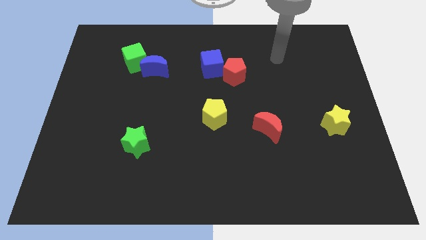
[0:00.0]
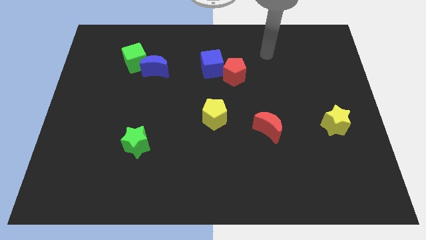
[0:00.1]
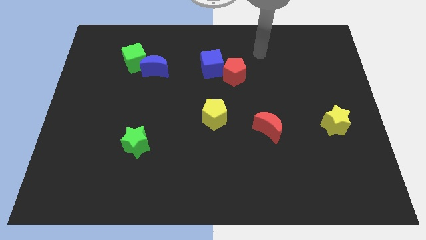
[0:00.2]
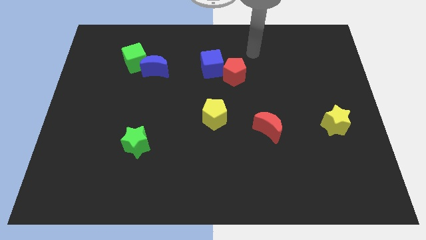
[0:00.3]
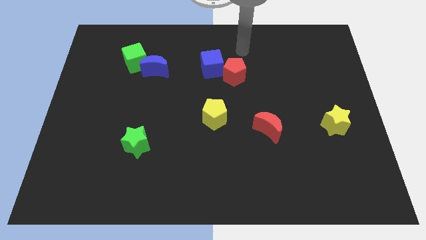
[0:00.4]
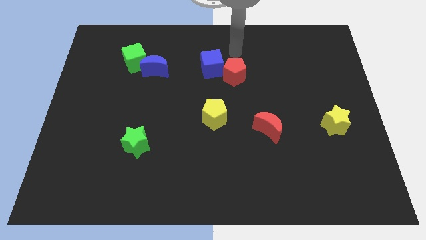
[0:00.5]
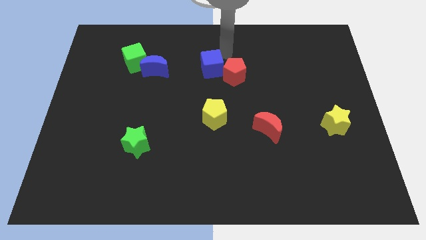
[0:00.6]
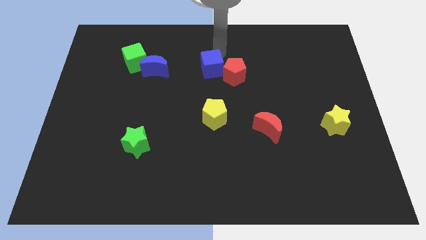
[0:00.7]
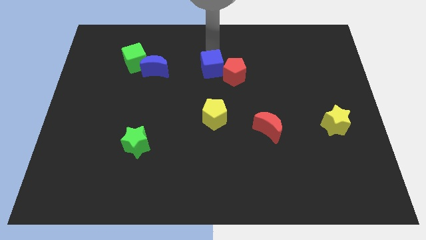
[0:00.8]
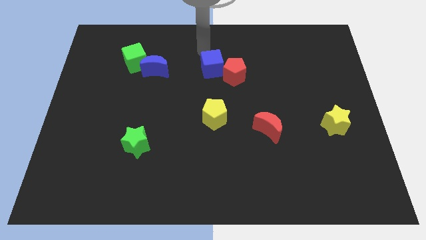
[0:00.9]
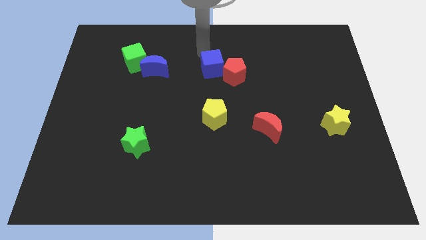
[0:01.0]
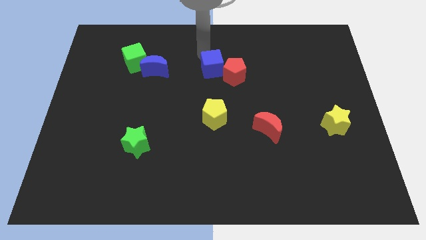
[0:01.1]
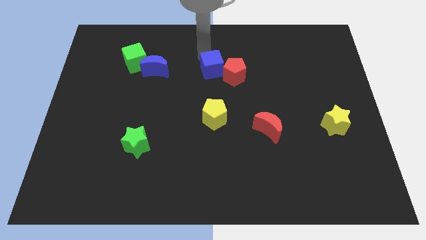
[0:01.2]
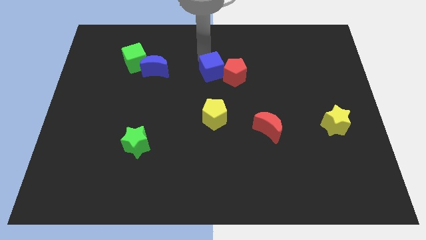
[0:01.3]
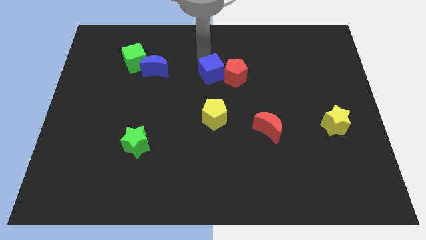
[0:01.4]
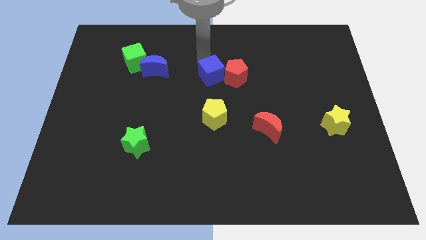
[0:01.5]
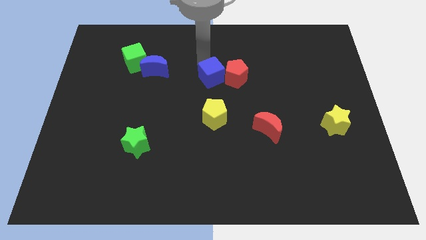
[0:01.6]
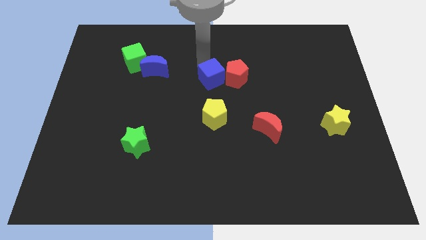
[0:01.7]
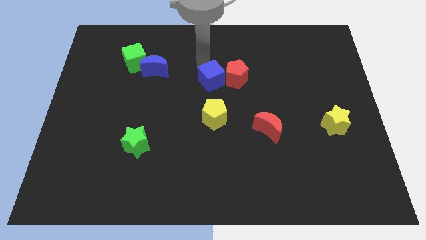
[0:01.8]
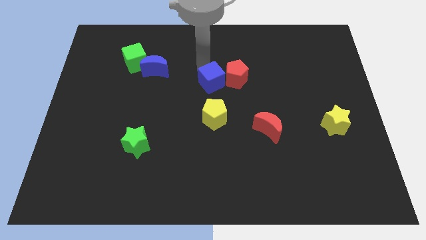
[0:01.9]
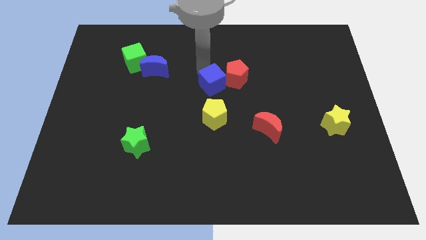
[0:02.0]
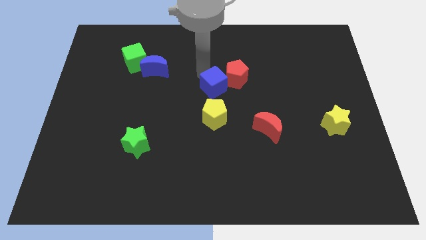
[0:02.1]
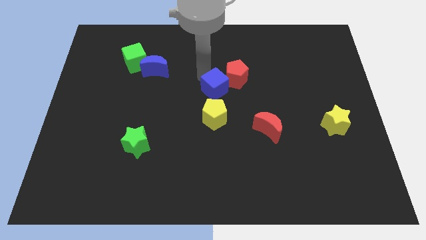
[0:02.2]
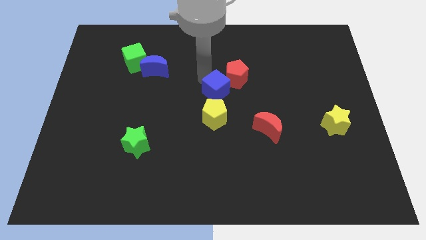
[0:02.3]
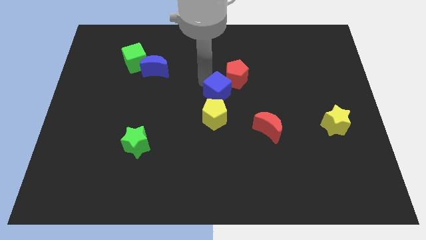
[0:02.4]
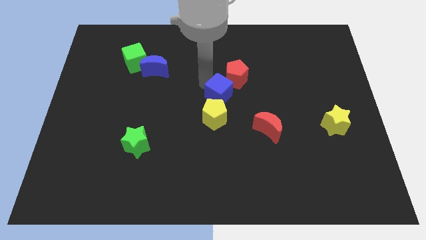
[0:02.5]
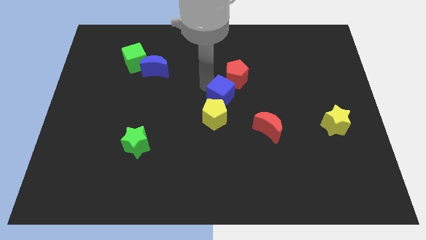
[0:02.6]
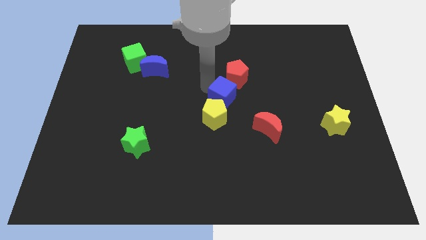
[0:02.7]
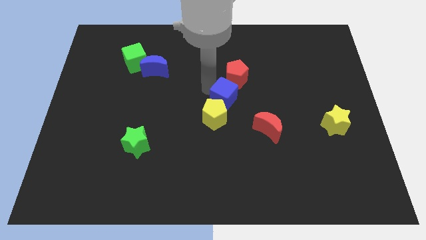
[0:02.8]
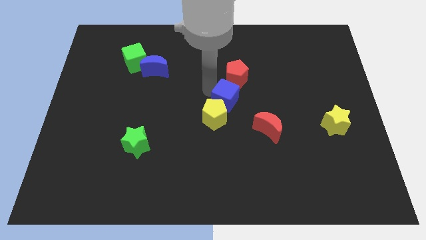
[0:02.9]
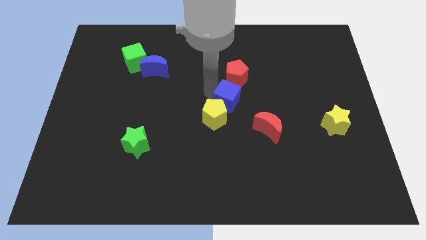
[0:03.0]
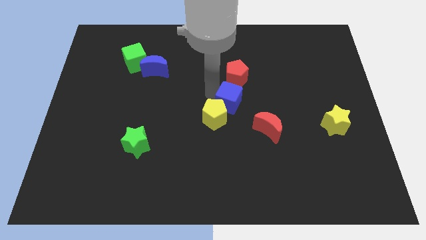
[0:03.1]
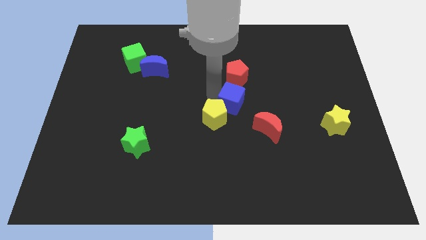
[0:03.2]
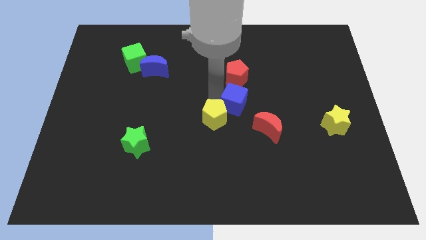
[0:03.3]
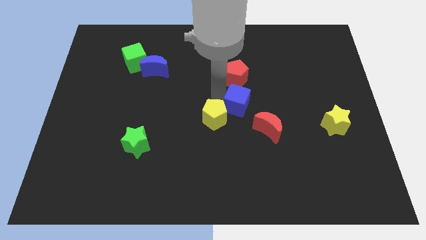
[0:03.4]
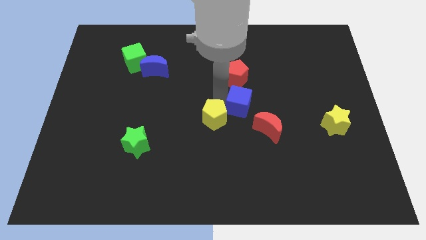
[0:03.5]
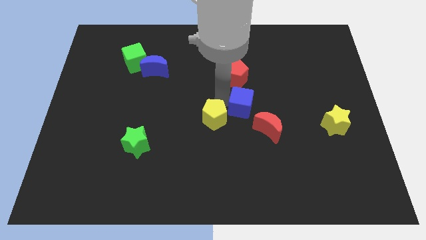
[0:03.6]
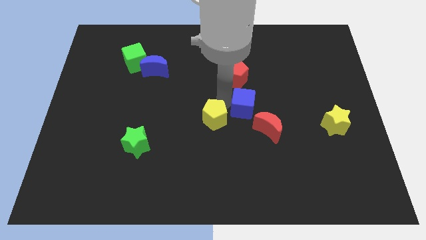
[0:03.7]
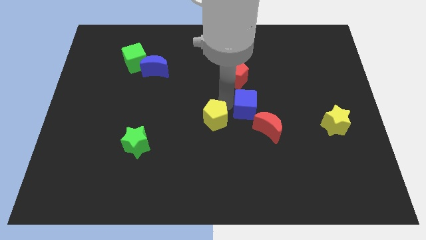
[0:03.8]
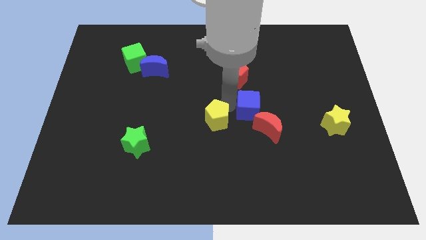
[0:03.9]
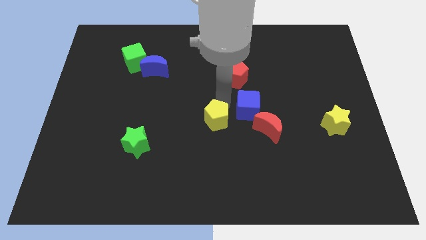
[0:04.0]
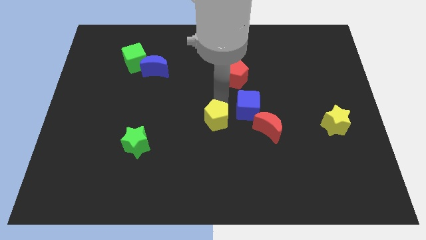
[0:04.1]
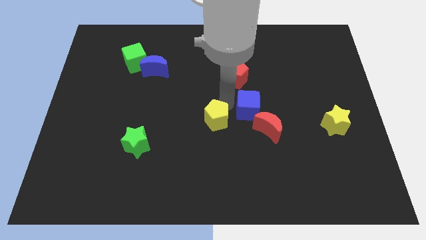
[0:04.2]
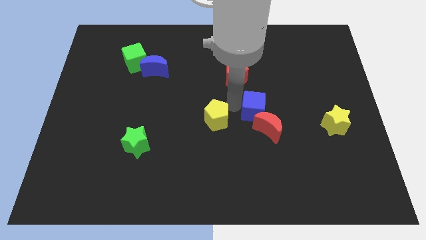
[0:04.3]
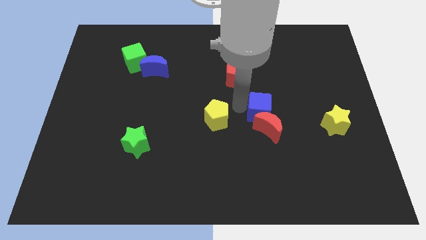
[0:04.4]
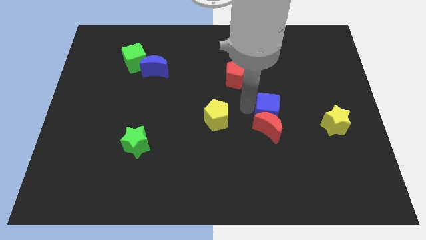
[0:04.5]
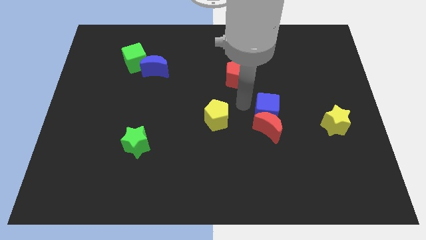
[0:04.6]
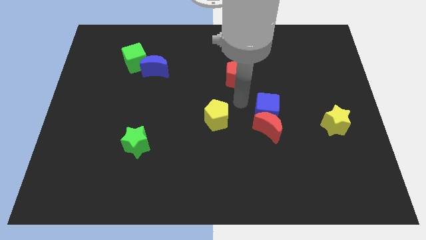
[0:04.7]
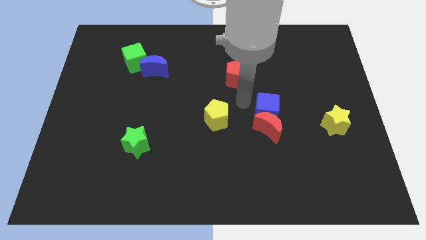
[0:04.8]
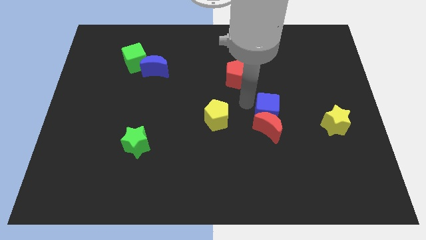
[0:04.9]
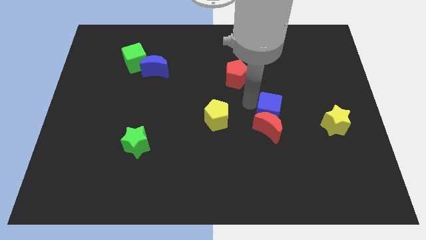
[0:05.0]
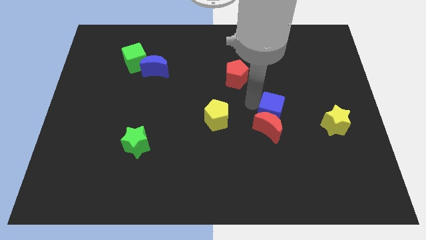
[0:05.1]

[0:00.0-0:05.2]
move the blue cube diagonally down and to the right

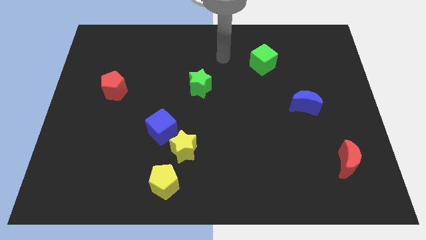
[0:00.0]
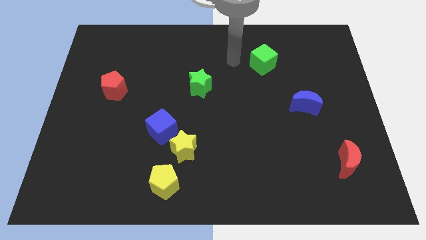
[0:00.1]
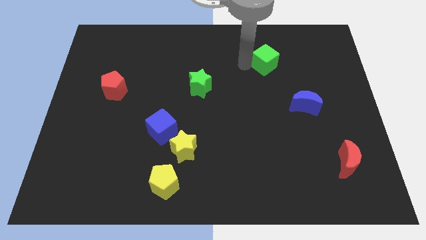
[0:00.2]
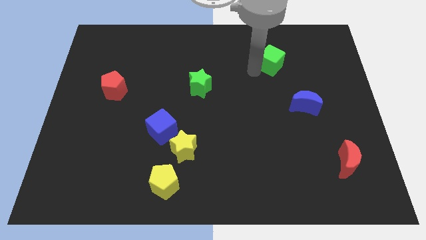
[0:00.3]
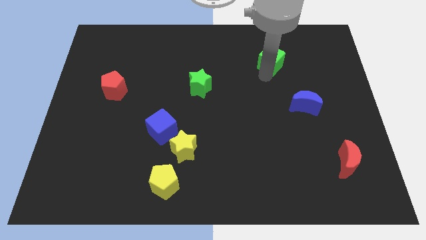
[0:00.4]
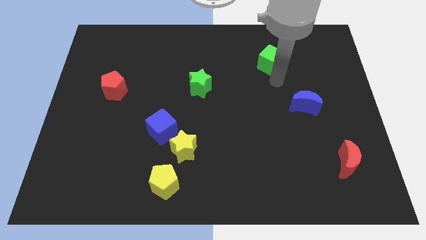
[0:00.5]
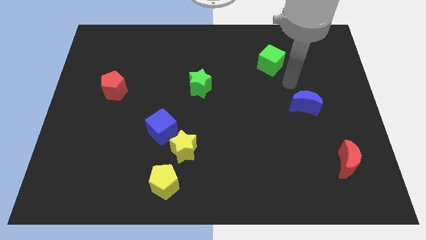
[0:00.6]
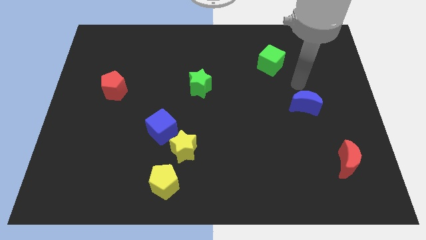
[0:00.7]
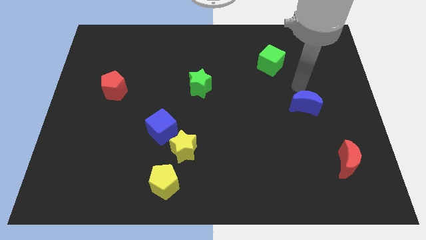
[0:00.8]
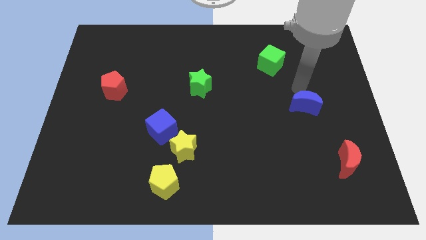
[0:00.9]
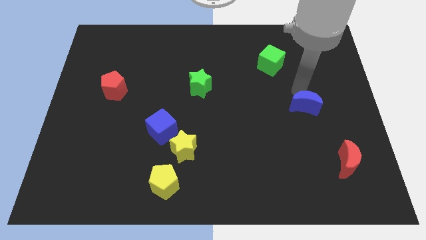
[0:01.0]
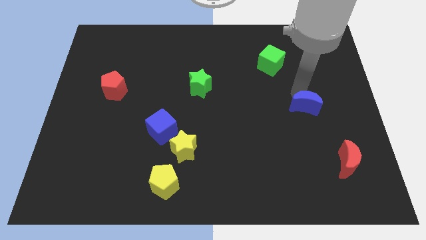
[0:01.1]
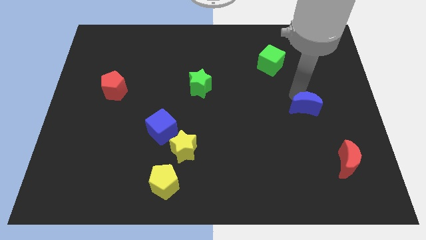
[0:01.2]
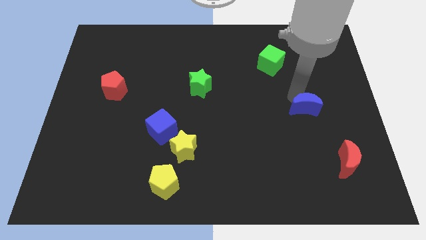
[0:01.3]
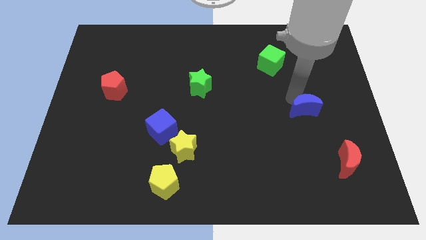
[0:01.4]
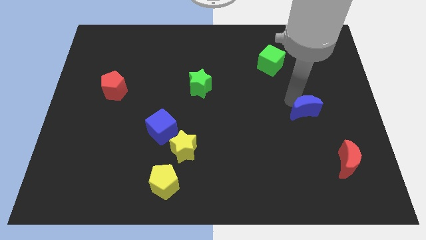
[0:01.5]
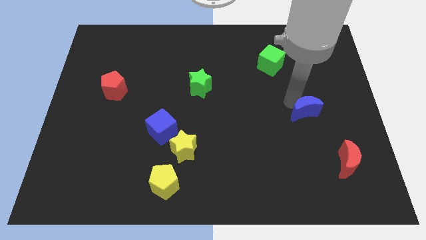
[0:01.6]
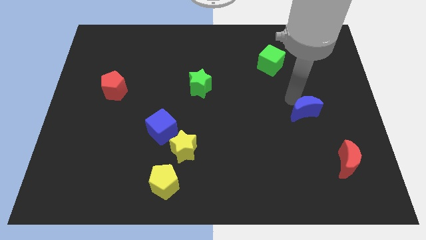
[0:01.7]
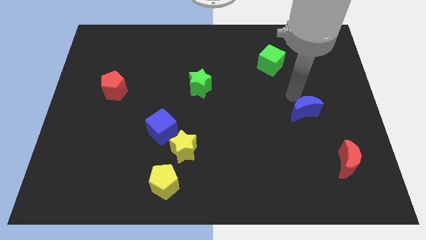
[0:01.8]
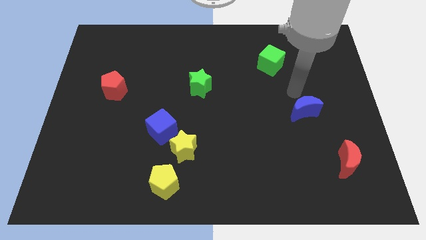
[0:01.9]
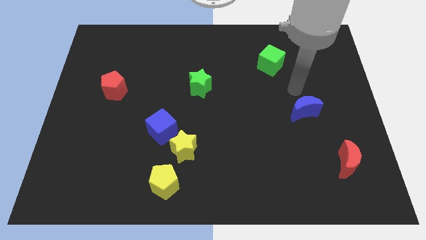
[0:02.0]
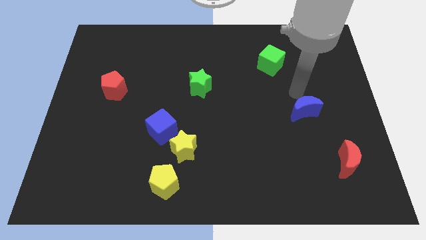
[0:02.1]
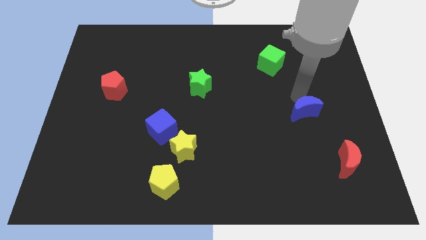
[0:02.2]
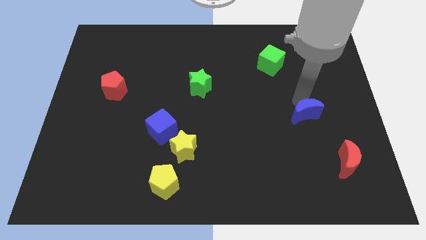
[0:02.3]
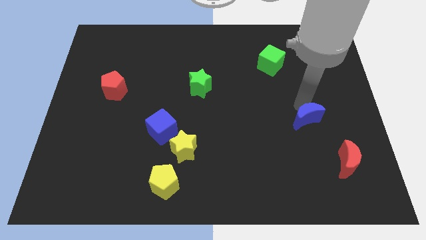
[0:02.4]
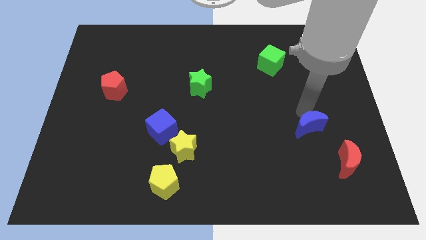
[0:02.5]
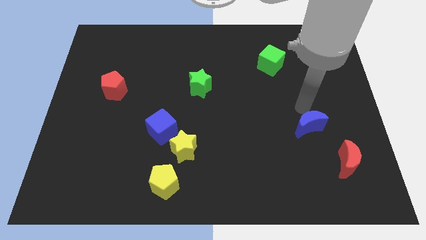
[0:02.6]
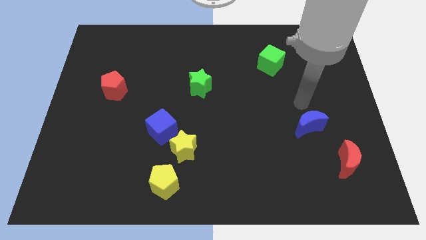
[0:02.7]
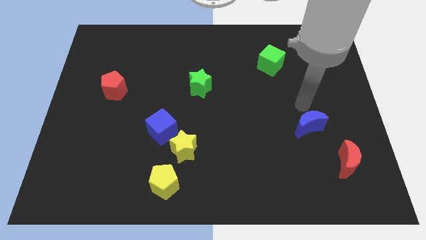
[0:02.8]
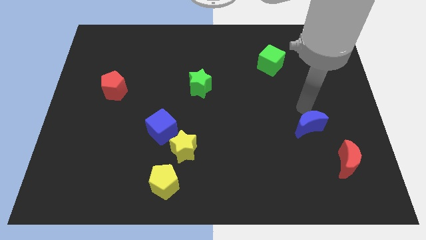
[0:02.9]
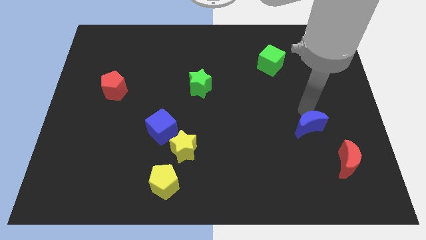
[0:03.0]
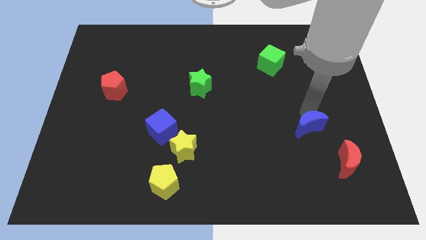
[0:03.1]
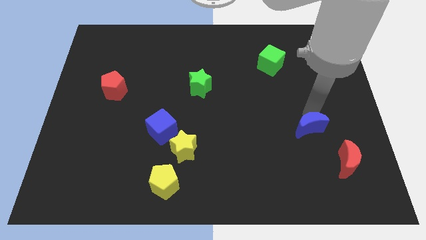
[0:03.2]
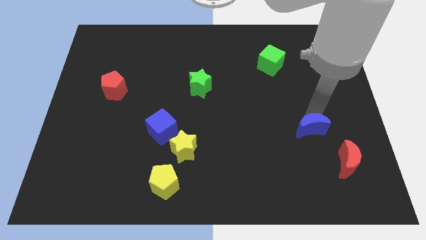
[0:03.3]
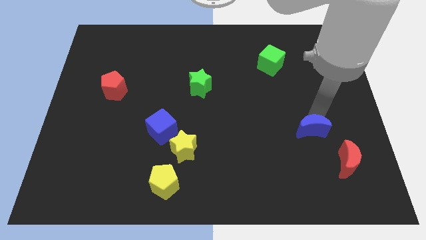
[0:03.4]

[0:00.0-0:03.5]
slightly move the blue moon down
